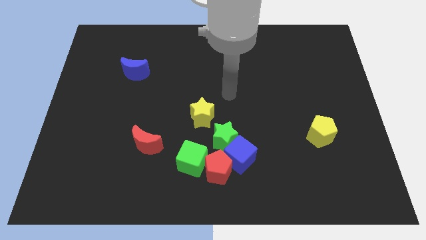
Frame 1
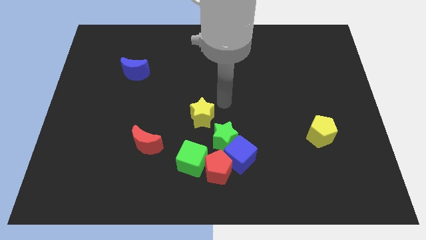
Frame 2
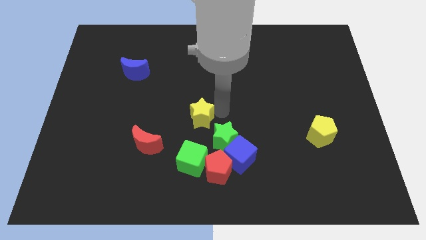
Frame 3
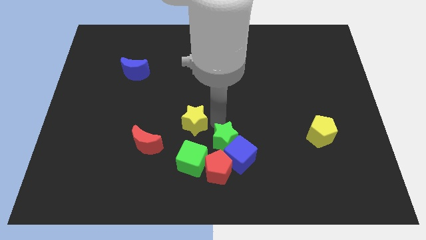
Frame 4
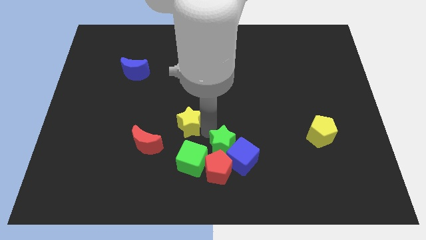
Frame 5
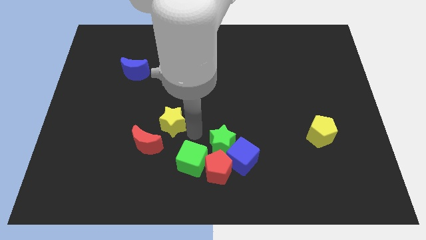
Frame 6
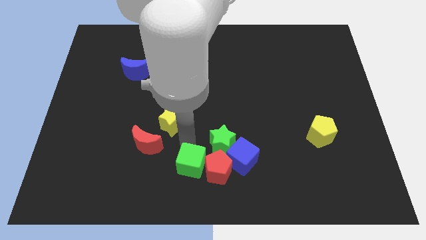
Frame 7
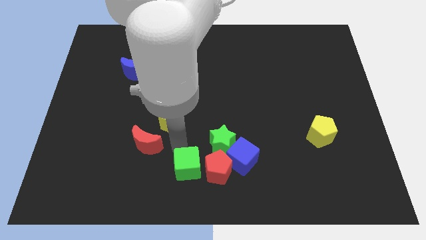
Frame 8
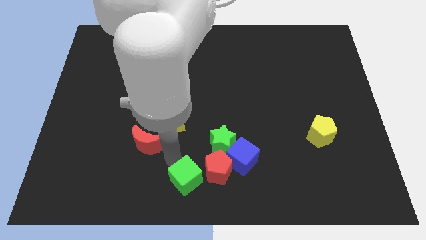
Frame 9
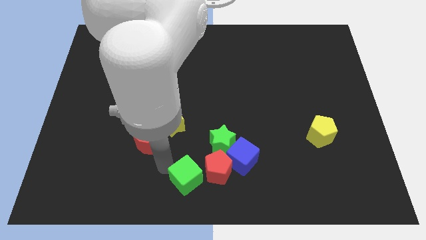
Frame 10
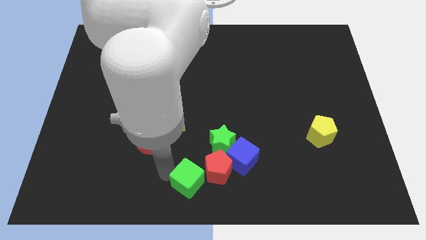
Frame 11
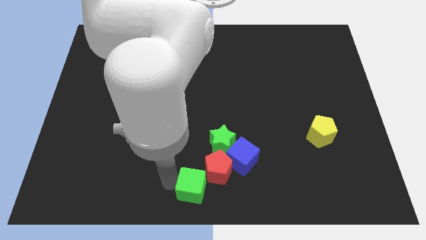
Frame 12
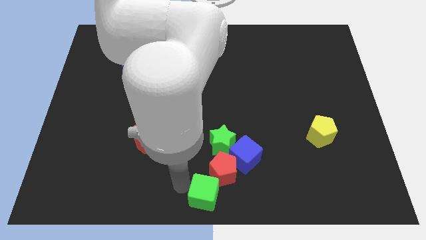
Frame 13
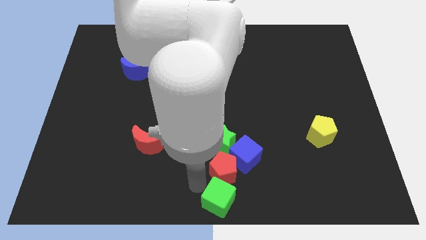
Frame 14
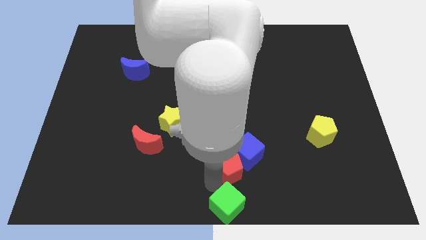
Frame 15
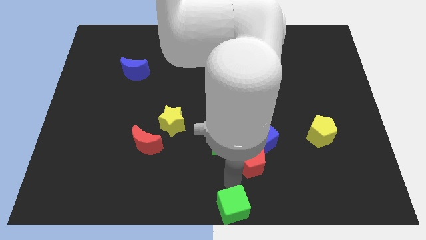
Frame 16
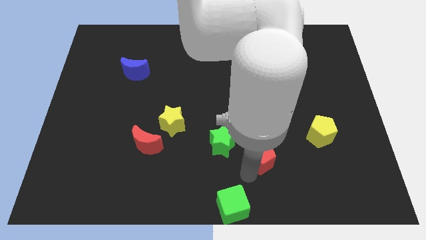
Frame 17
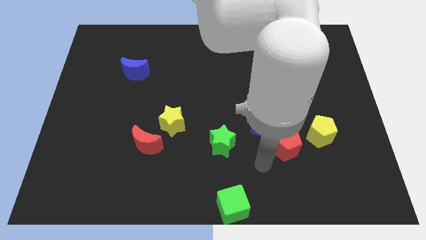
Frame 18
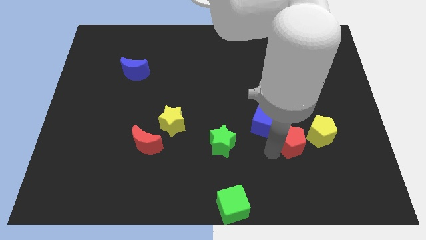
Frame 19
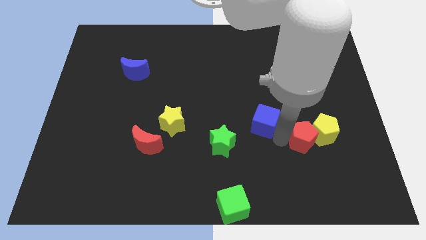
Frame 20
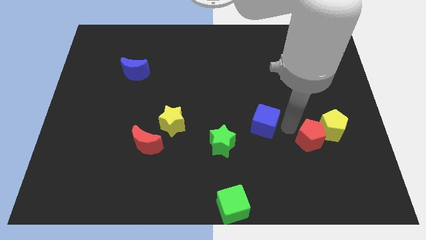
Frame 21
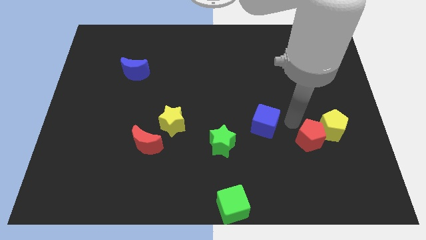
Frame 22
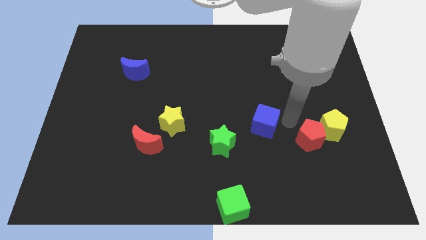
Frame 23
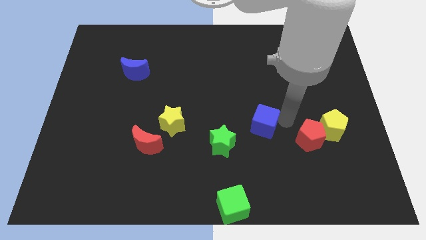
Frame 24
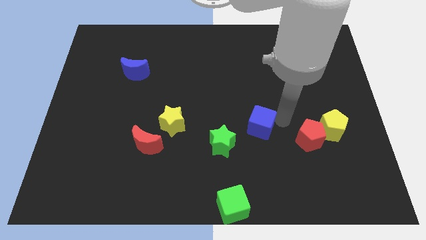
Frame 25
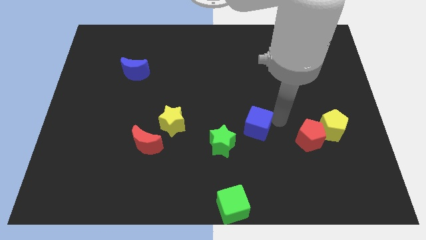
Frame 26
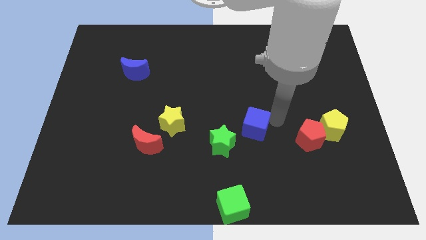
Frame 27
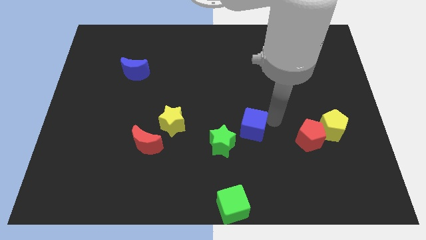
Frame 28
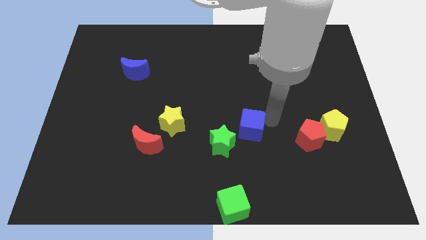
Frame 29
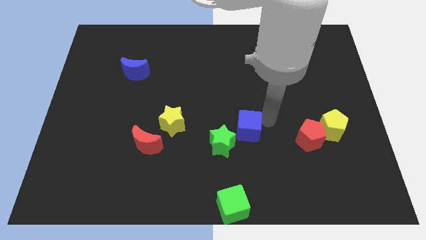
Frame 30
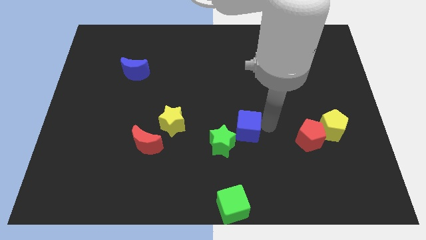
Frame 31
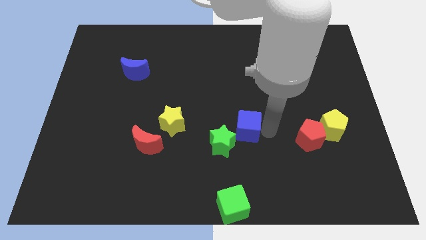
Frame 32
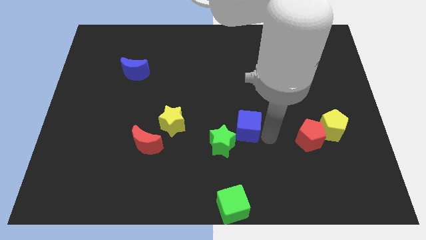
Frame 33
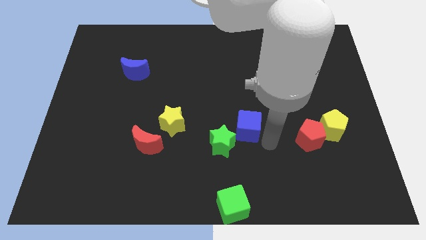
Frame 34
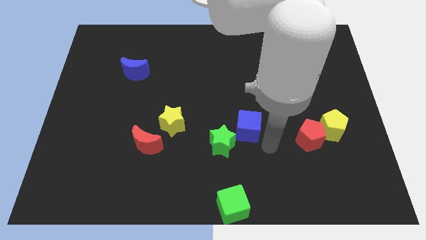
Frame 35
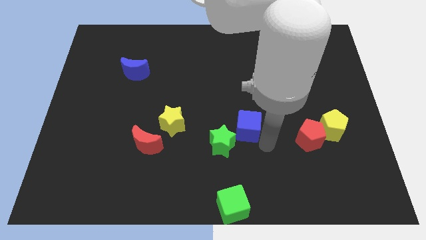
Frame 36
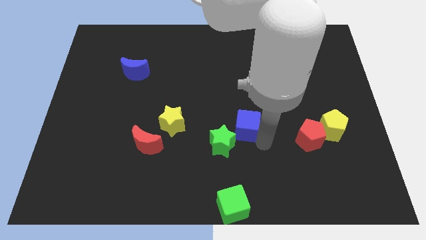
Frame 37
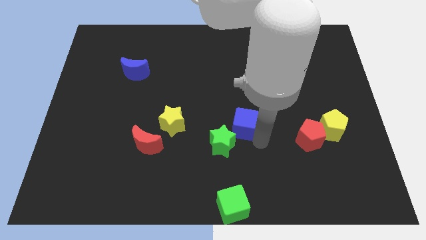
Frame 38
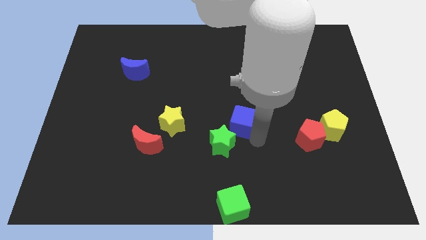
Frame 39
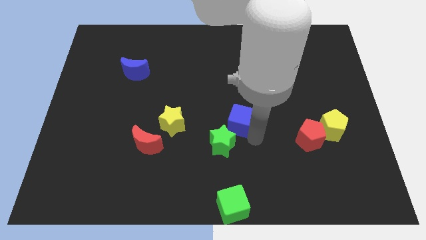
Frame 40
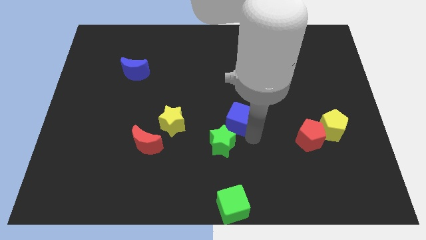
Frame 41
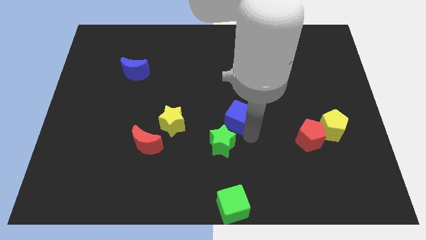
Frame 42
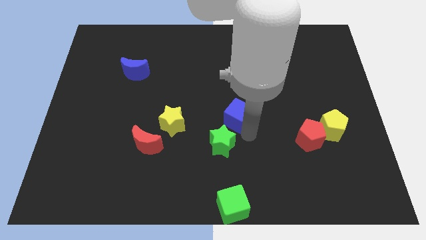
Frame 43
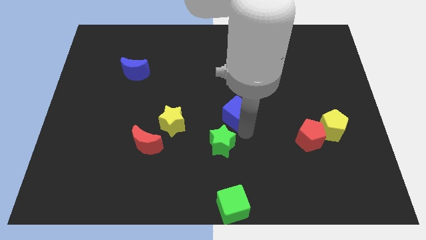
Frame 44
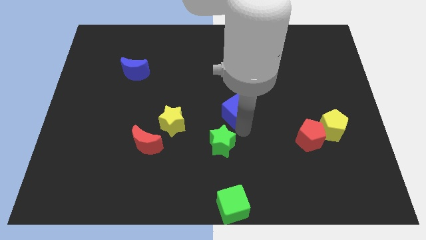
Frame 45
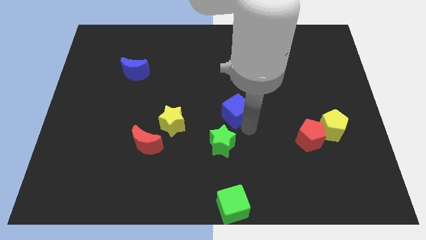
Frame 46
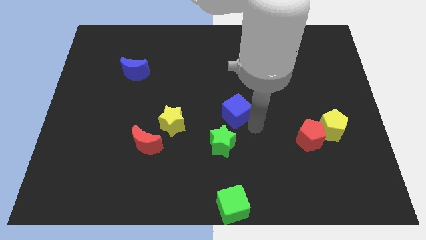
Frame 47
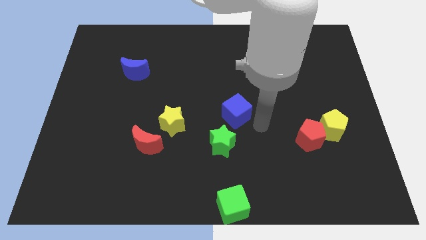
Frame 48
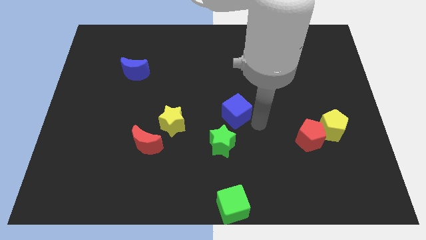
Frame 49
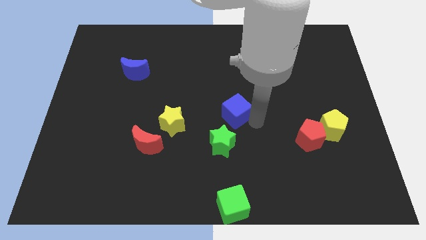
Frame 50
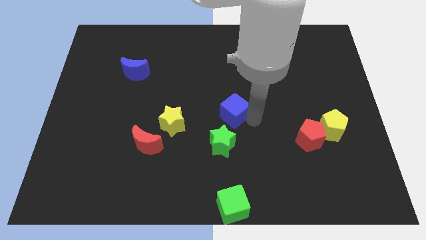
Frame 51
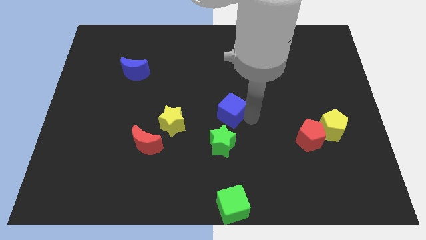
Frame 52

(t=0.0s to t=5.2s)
push the blue cube a little bit up and to the left diagonally

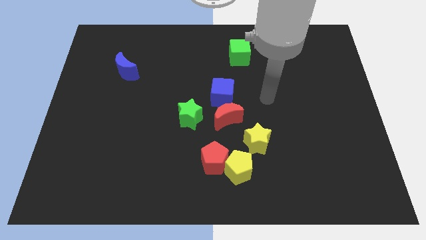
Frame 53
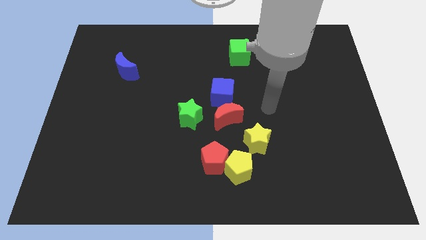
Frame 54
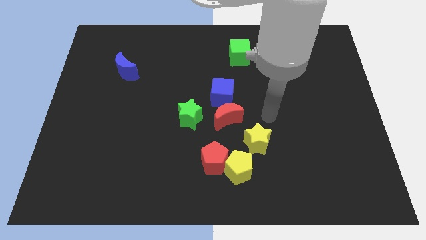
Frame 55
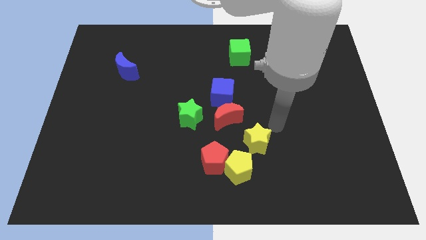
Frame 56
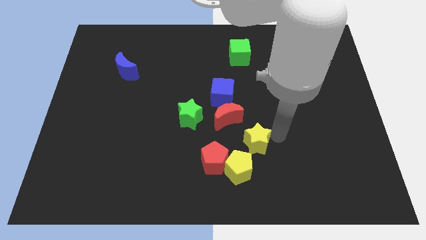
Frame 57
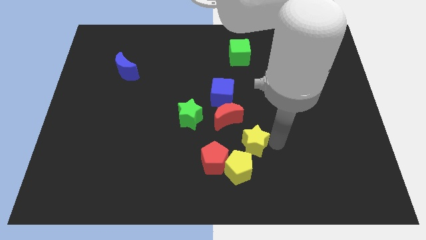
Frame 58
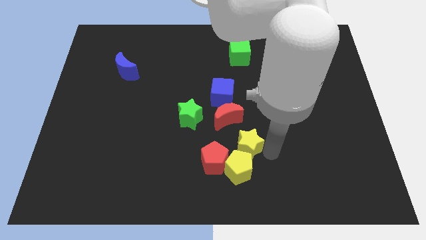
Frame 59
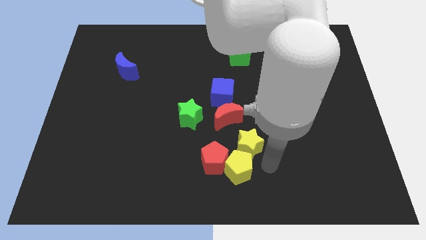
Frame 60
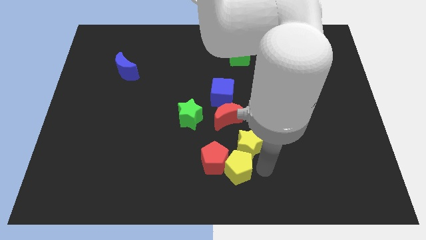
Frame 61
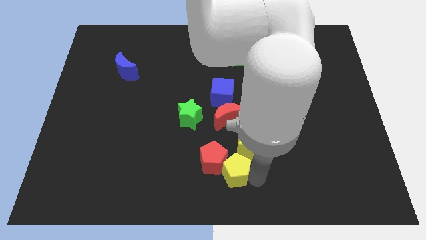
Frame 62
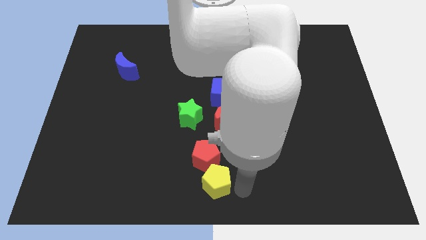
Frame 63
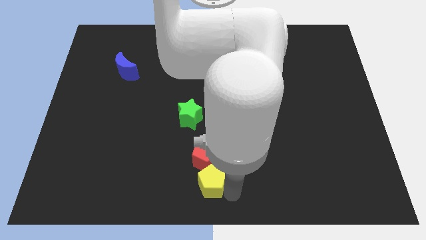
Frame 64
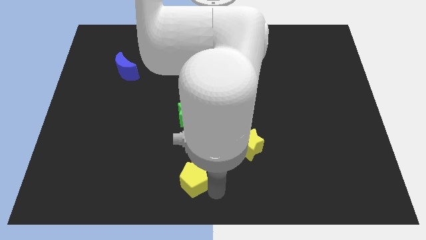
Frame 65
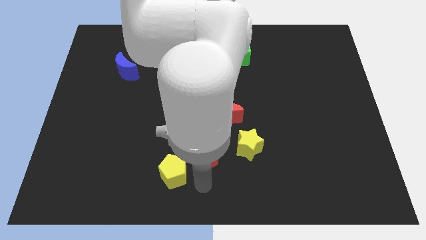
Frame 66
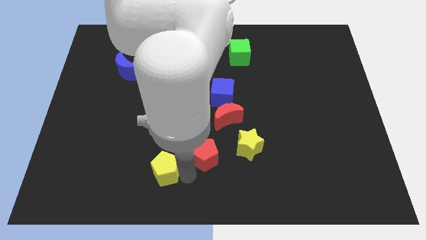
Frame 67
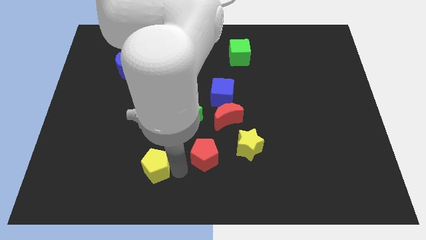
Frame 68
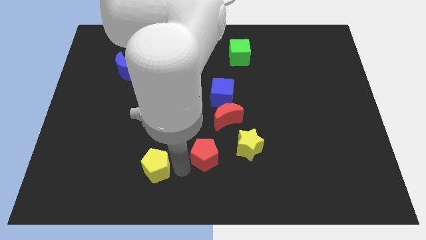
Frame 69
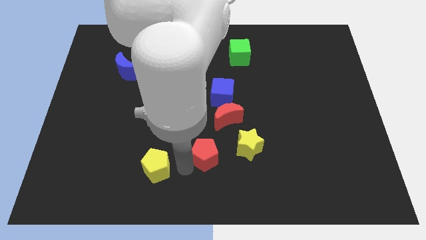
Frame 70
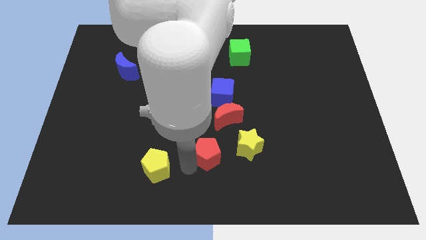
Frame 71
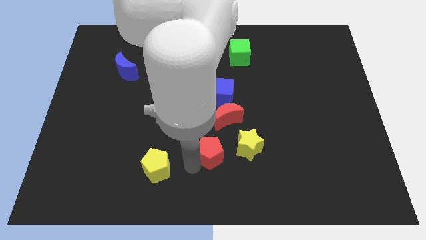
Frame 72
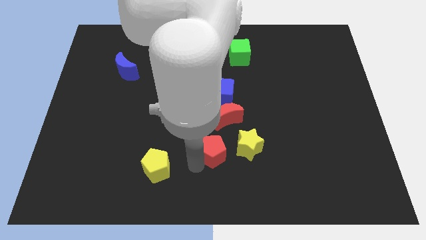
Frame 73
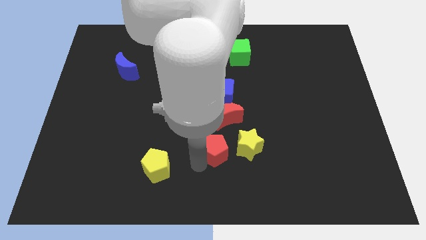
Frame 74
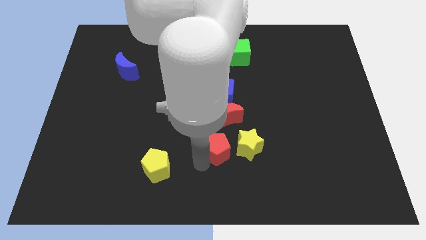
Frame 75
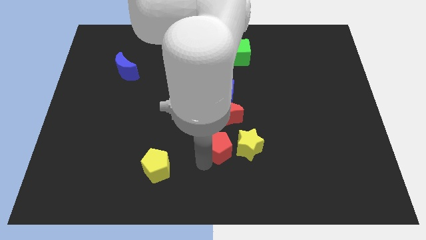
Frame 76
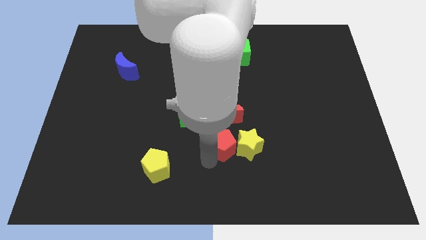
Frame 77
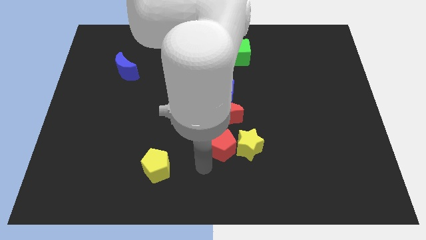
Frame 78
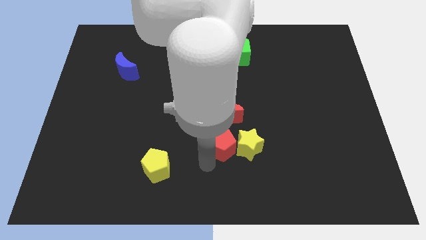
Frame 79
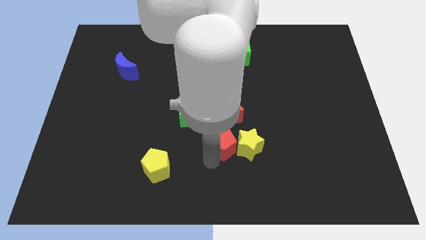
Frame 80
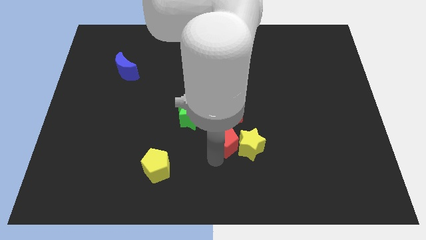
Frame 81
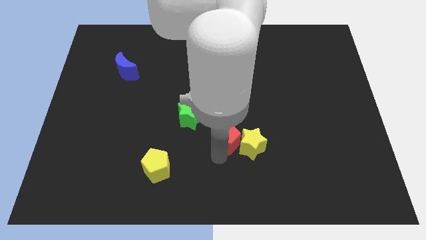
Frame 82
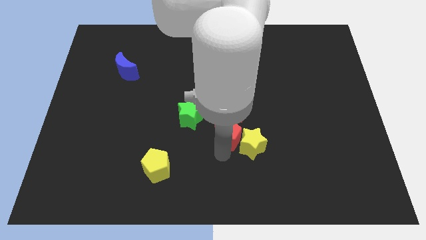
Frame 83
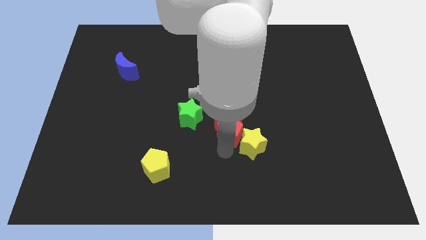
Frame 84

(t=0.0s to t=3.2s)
push the red pentagon a bit upwards and then right
